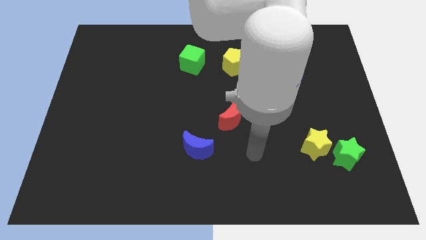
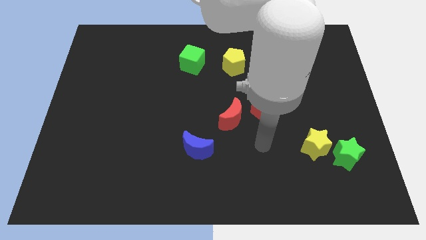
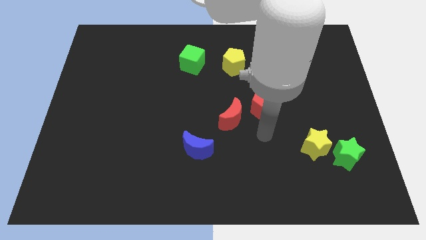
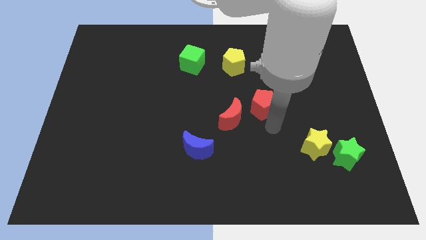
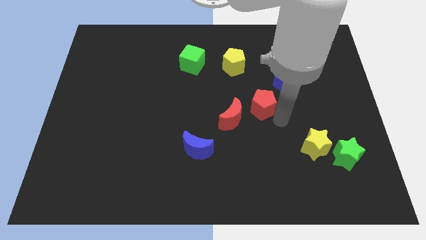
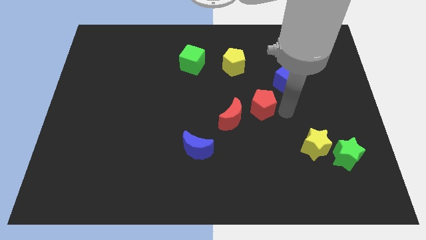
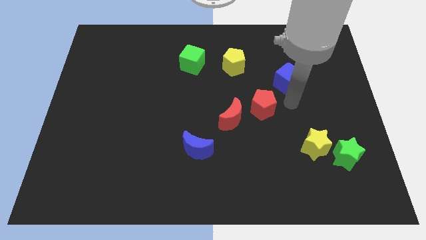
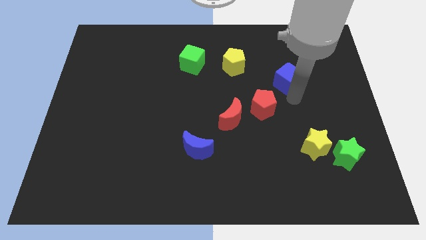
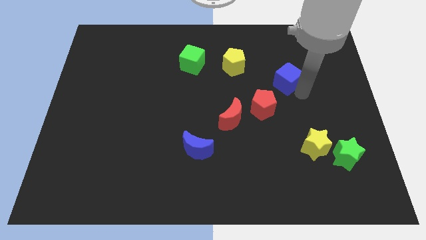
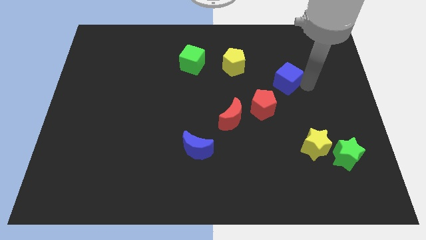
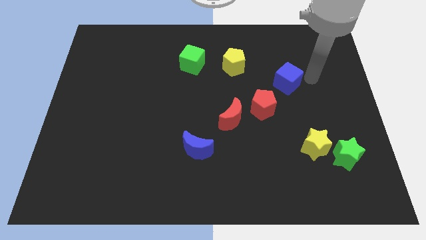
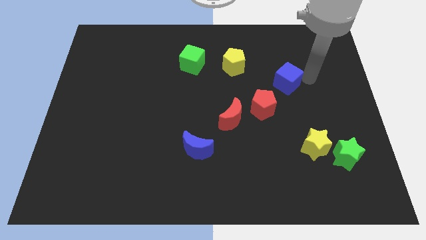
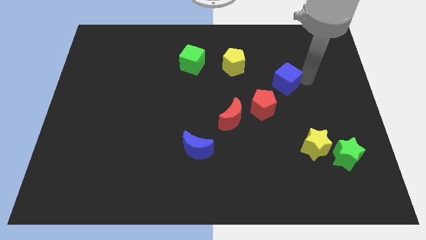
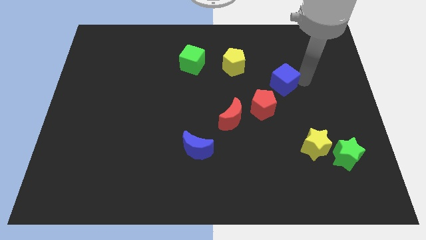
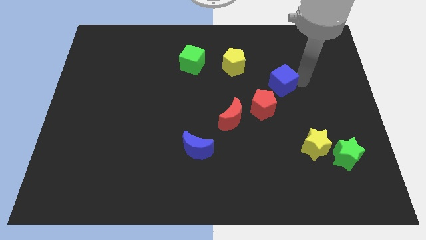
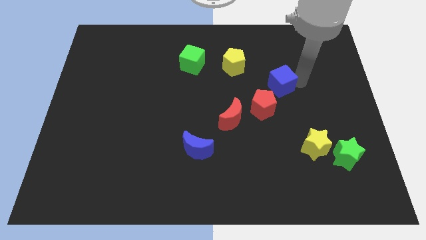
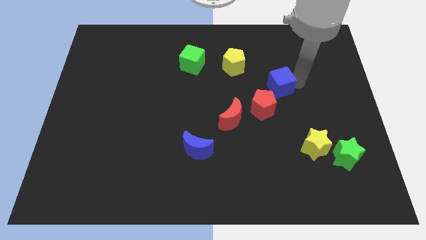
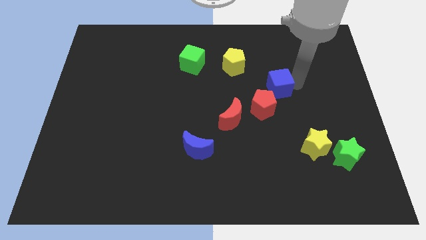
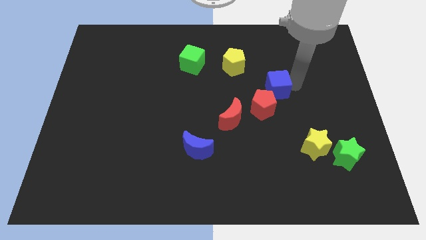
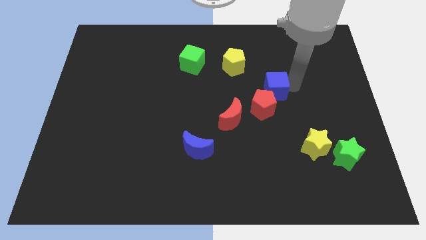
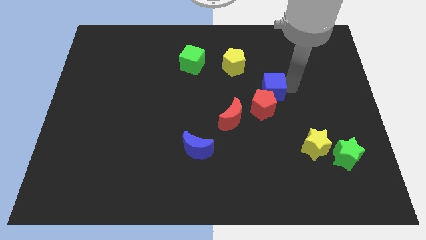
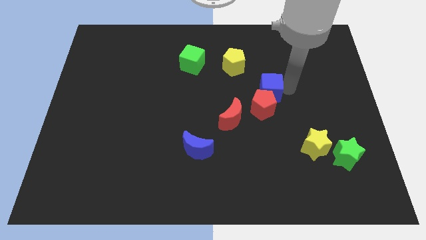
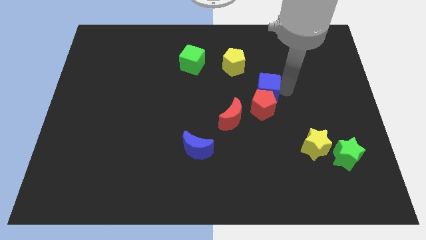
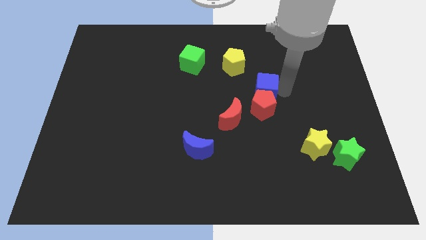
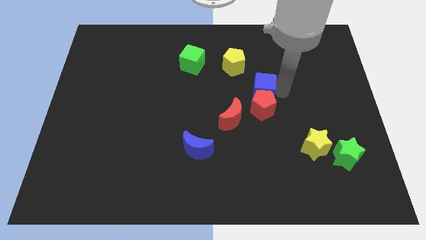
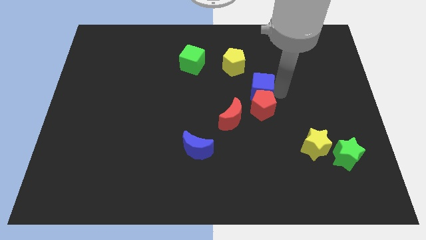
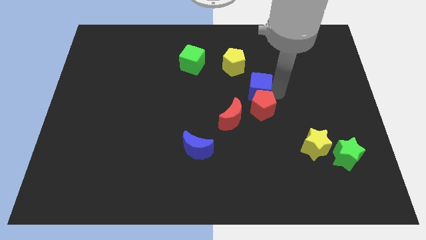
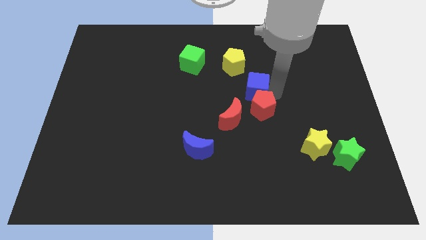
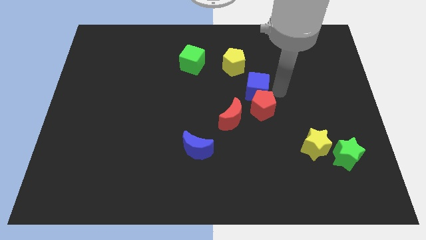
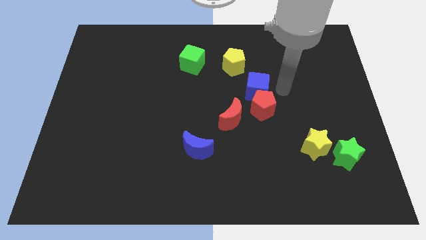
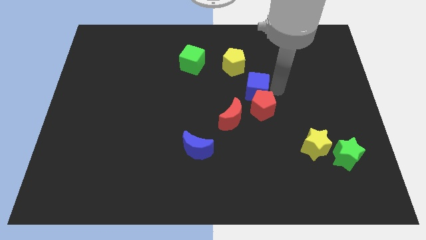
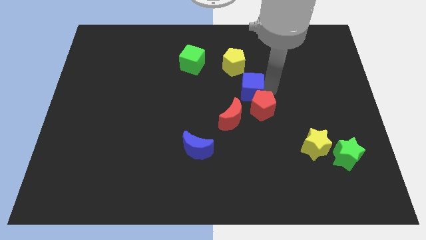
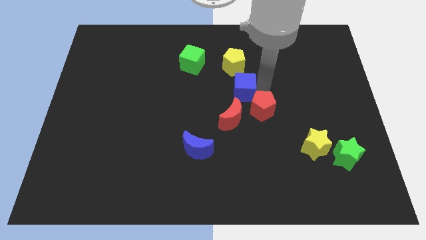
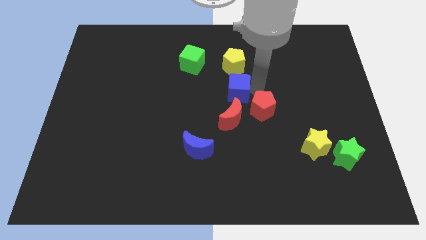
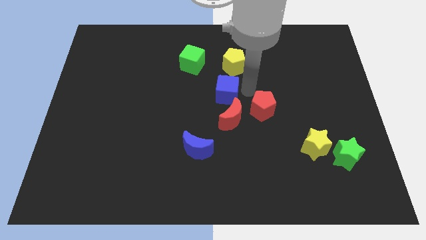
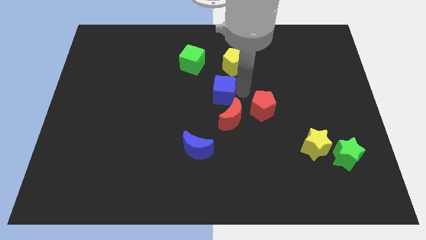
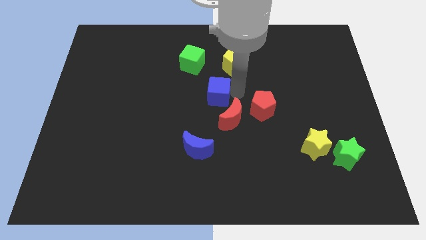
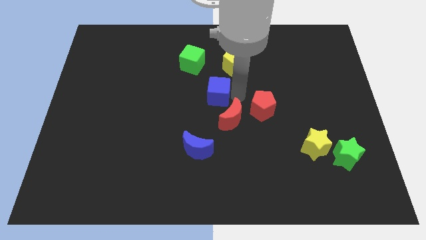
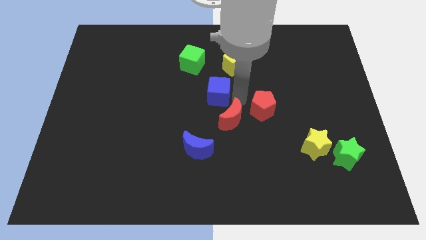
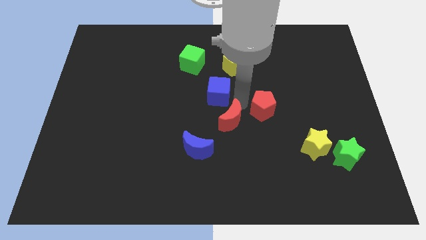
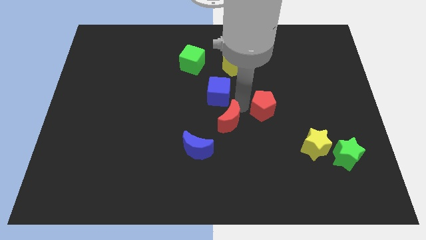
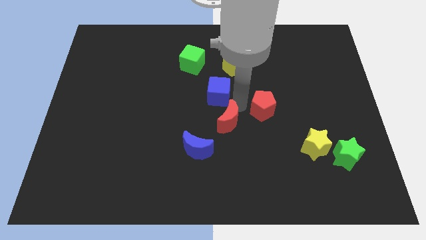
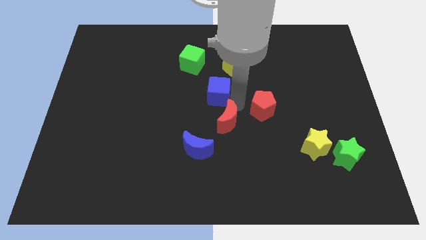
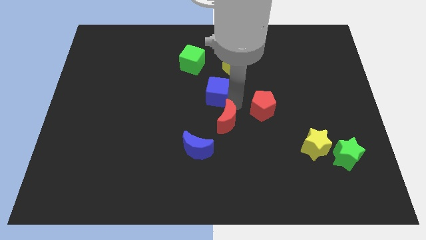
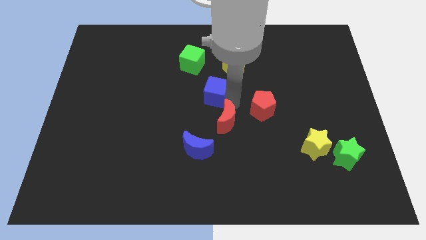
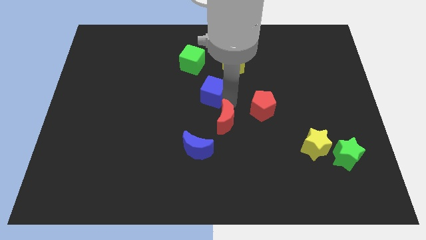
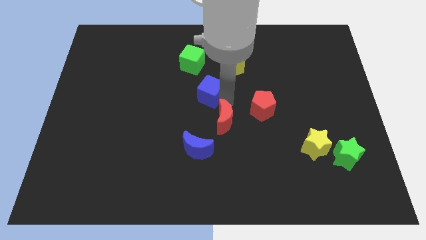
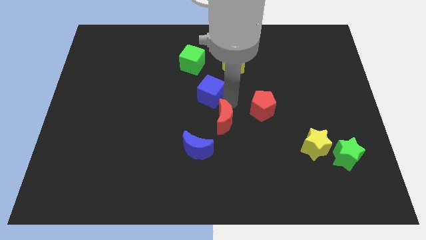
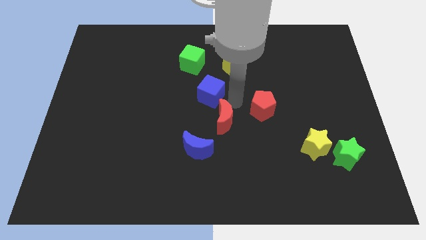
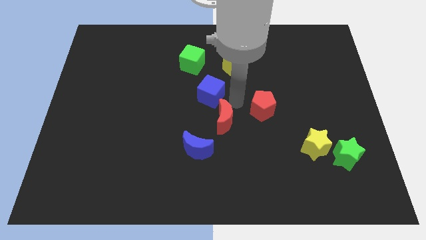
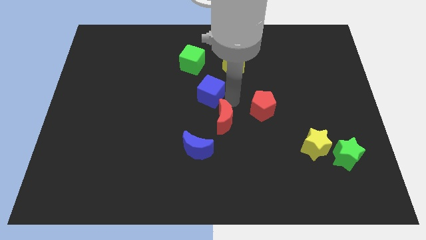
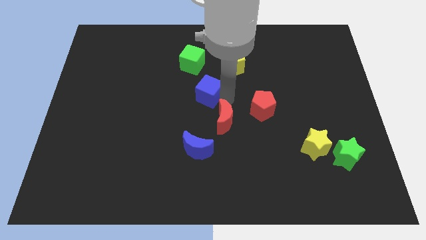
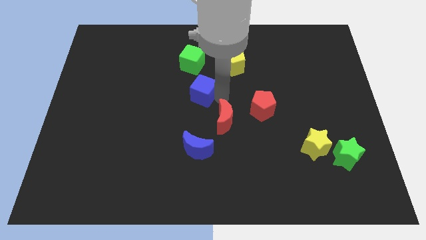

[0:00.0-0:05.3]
slide the blue cube left

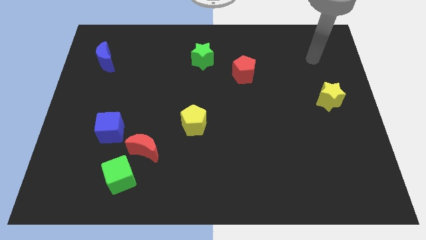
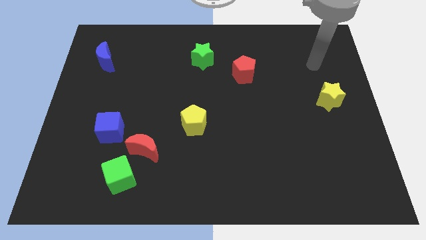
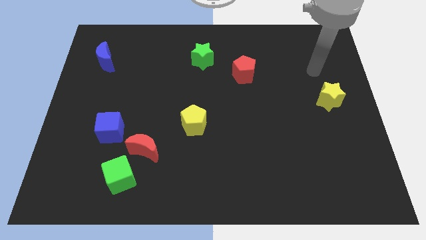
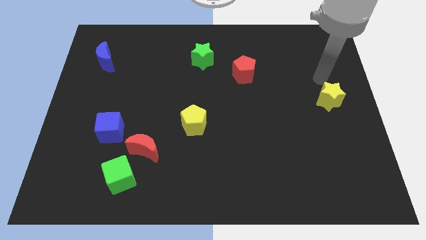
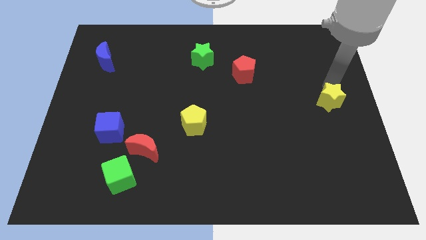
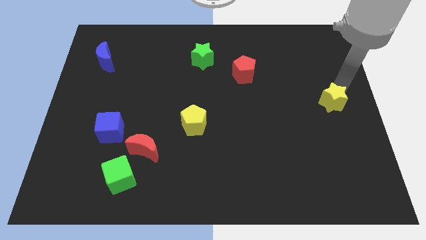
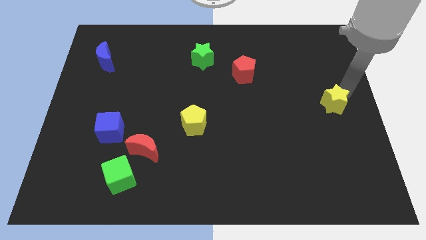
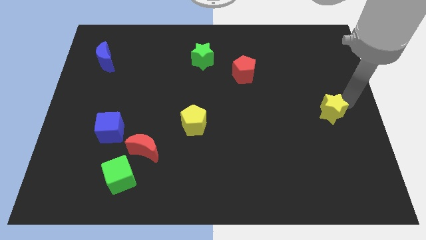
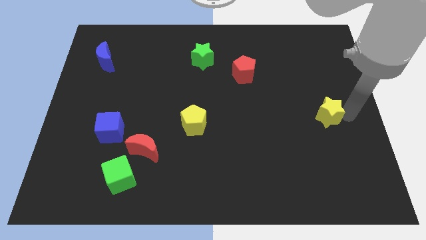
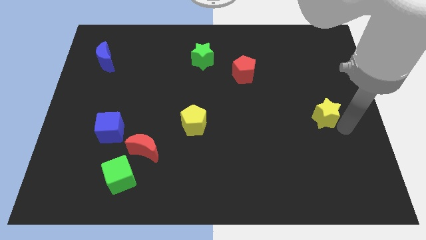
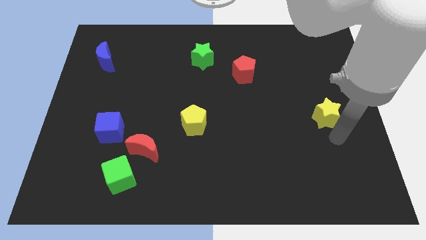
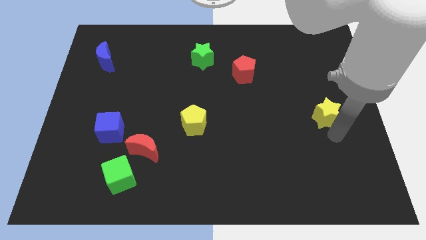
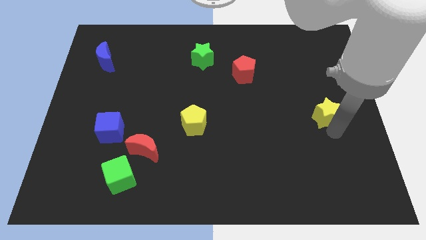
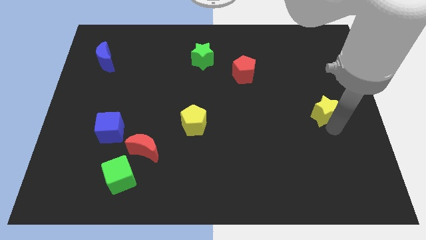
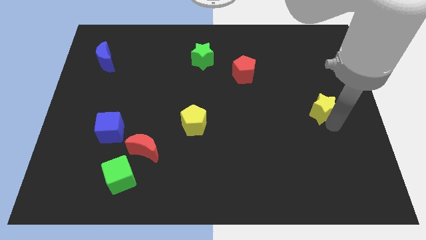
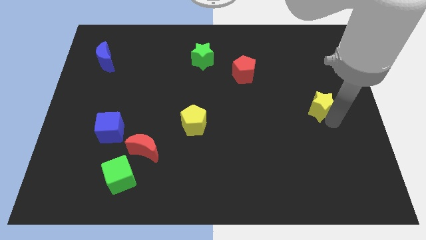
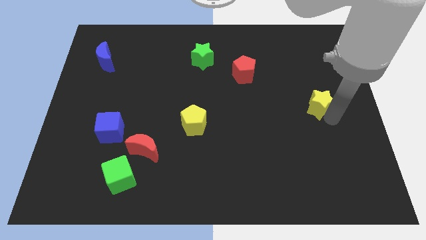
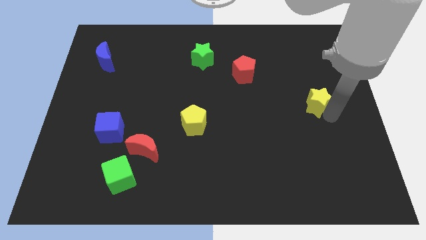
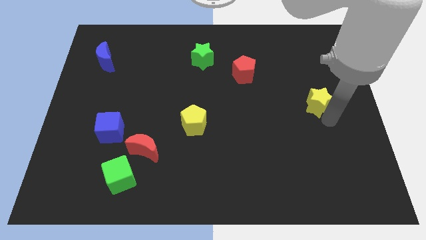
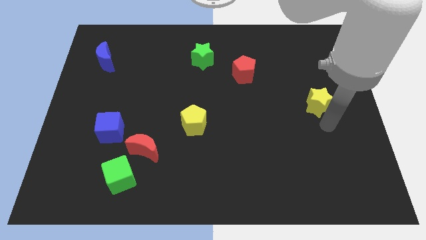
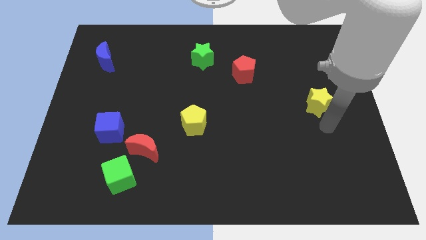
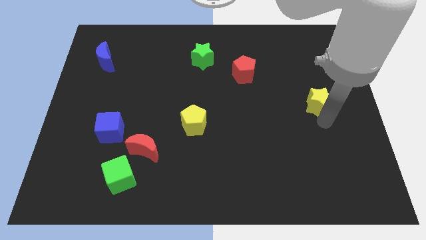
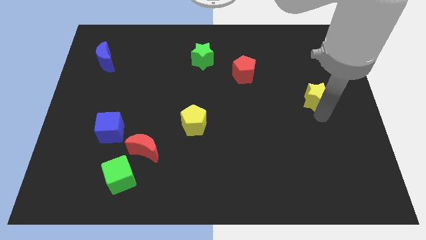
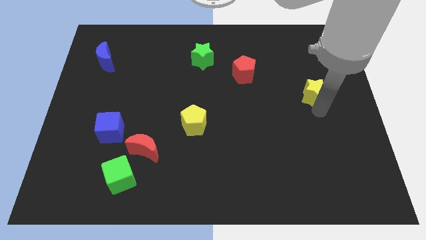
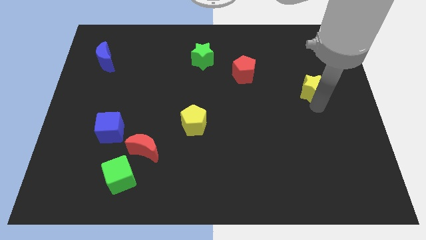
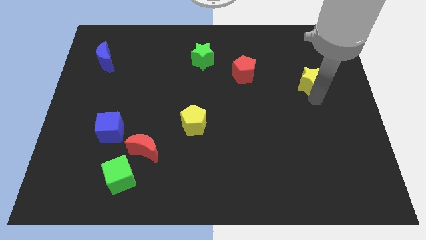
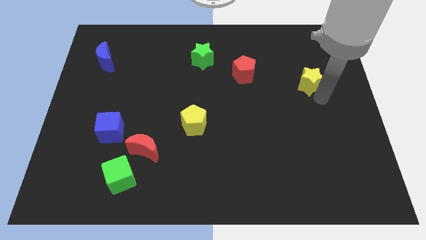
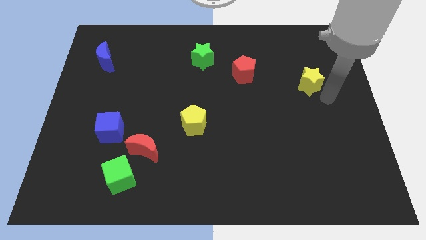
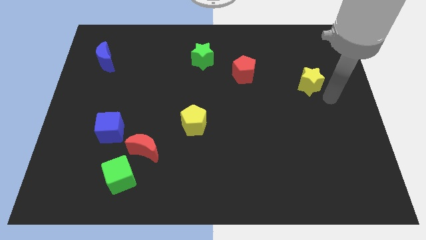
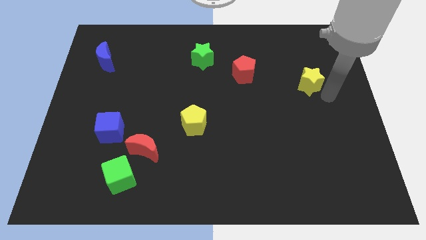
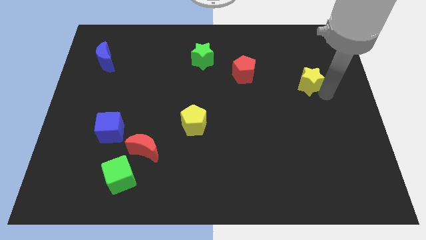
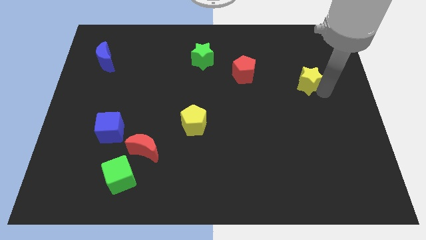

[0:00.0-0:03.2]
slightly move the yellow star upwards and then to the left
